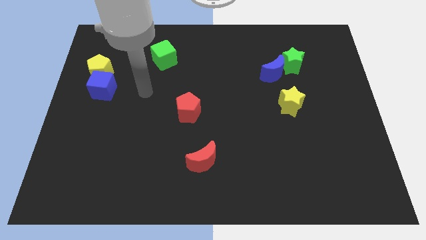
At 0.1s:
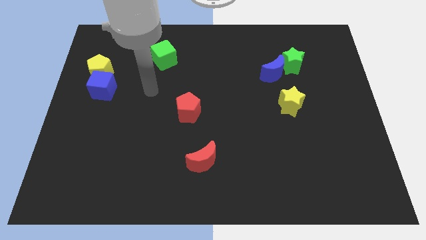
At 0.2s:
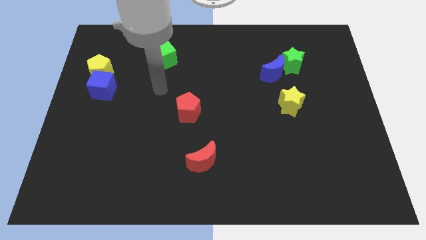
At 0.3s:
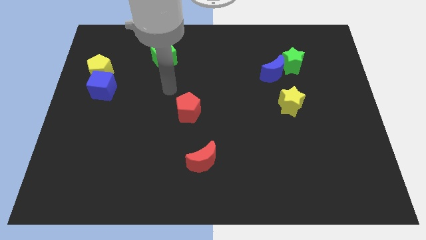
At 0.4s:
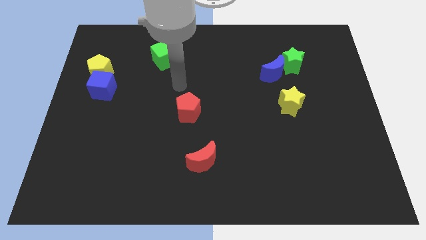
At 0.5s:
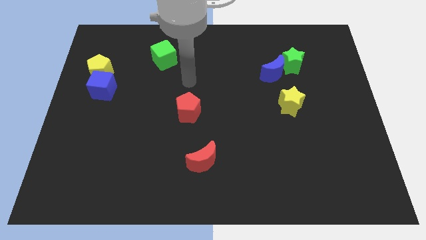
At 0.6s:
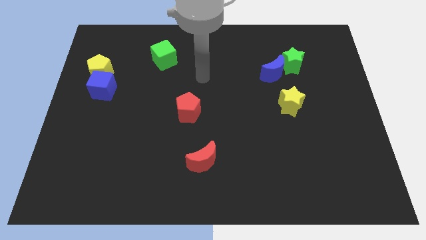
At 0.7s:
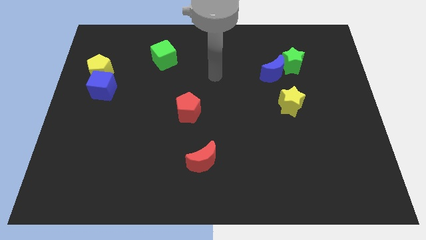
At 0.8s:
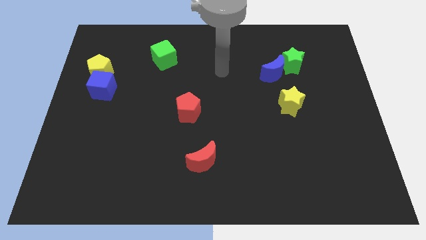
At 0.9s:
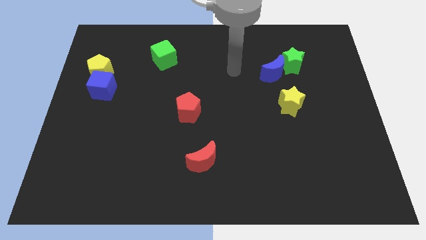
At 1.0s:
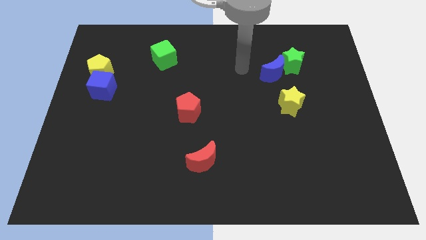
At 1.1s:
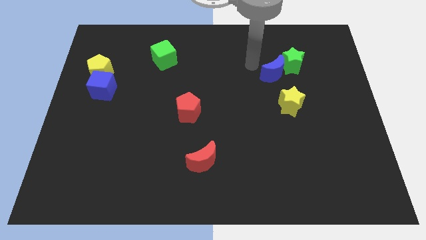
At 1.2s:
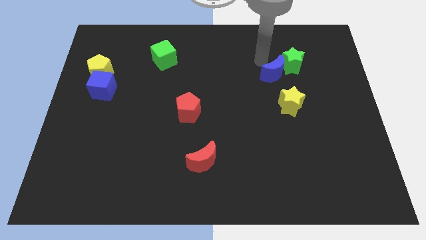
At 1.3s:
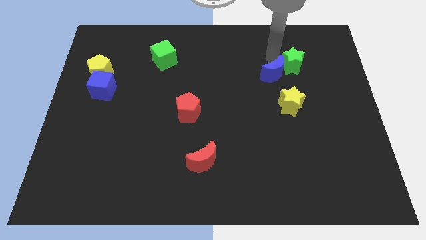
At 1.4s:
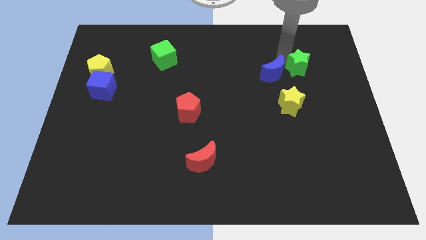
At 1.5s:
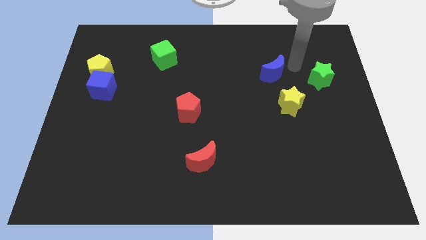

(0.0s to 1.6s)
move the blue moon away from the green star

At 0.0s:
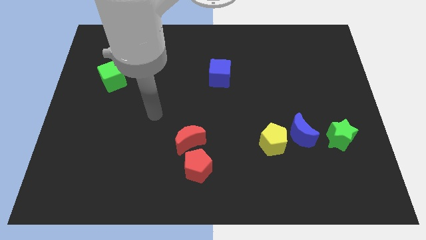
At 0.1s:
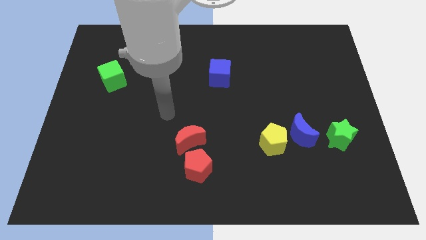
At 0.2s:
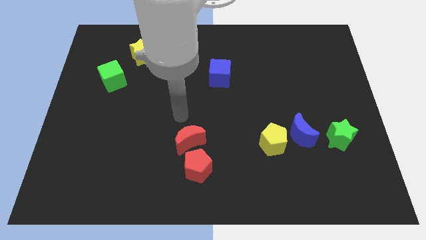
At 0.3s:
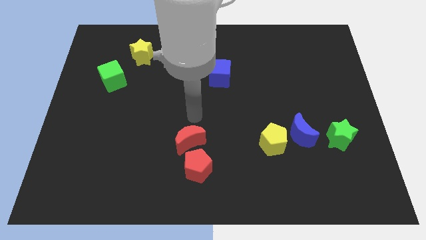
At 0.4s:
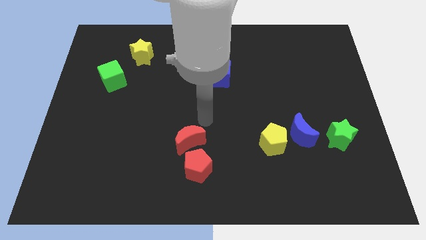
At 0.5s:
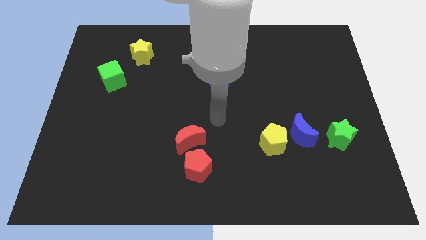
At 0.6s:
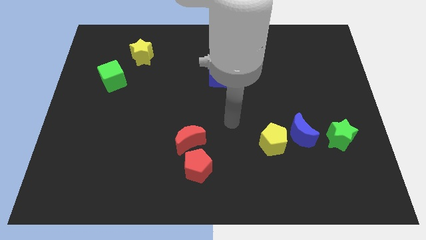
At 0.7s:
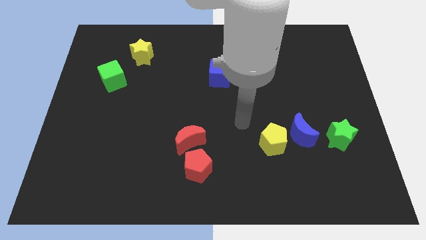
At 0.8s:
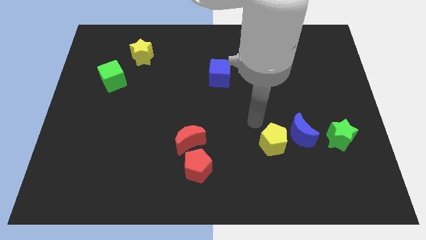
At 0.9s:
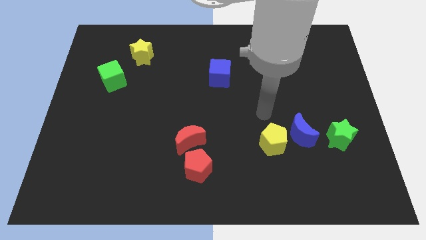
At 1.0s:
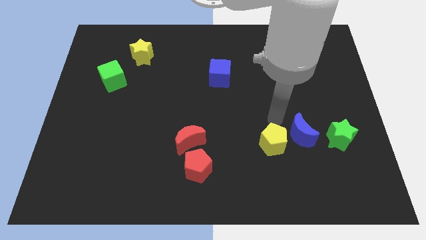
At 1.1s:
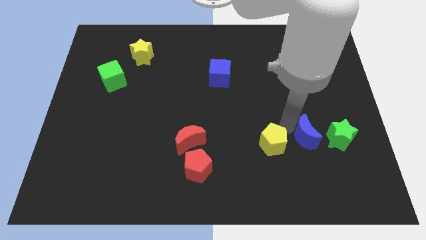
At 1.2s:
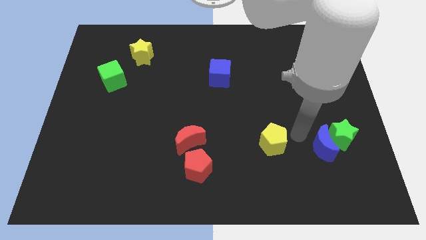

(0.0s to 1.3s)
separate the yellow pentagon from the blue moon

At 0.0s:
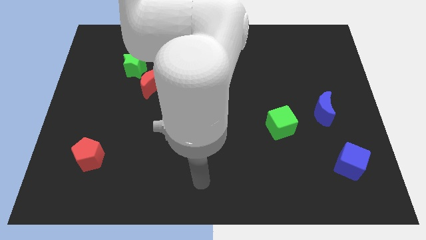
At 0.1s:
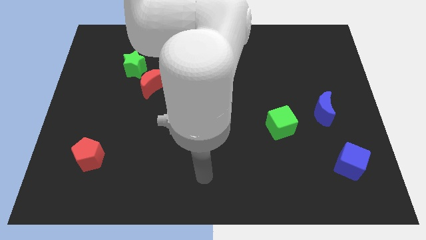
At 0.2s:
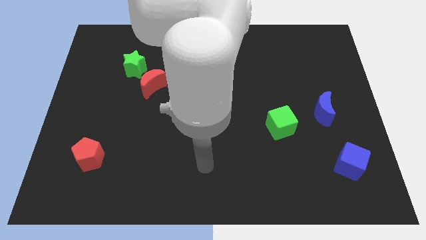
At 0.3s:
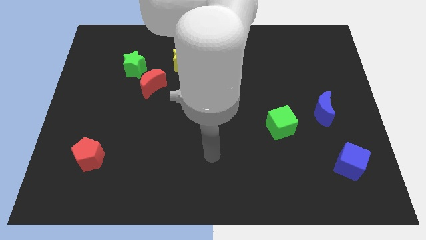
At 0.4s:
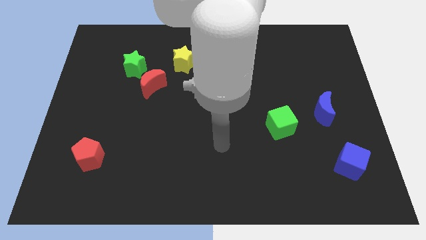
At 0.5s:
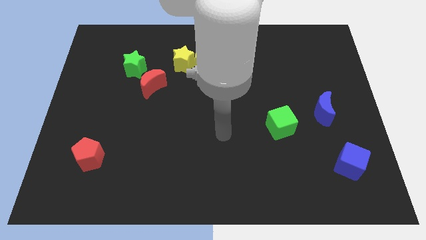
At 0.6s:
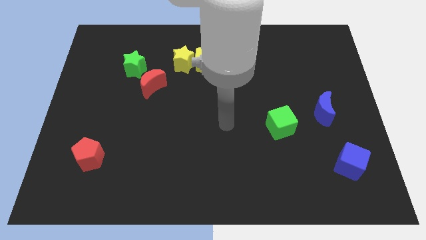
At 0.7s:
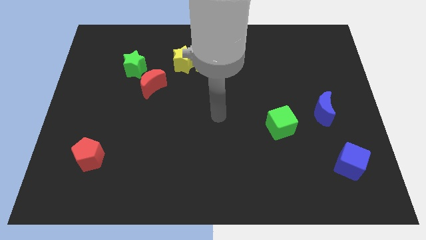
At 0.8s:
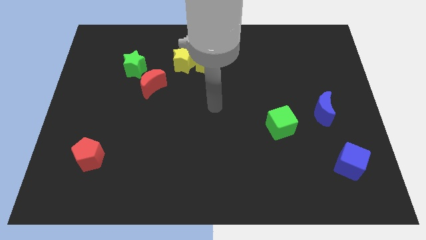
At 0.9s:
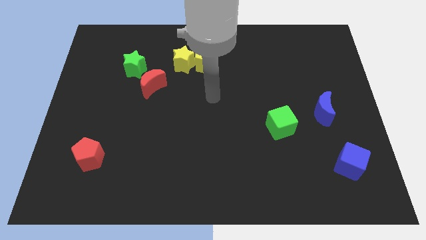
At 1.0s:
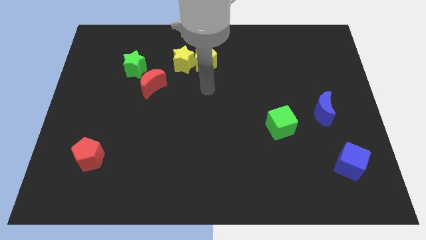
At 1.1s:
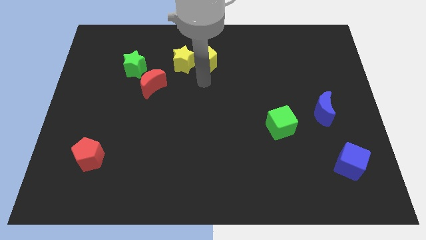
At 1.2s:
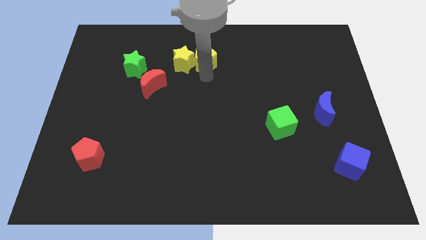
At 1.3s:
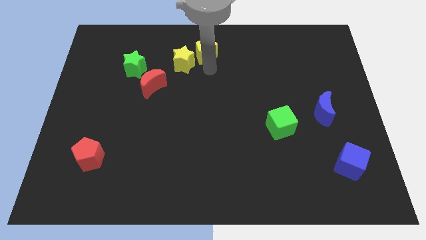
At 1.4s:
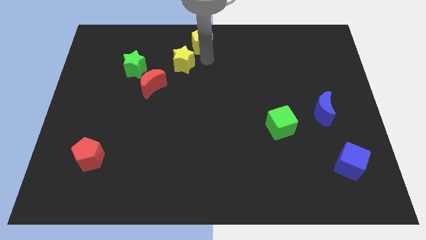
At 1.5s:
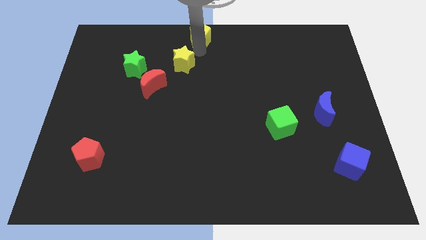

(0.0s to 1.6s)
pull the yellow star apart from the yellow pentagon

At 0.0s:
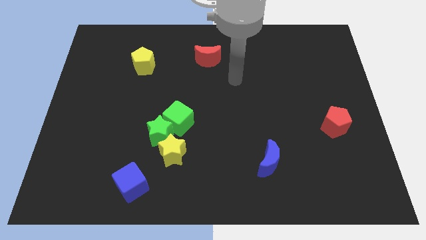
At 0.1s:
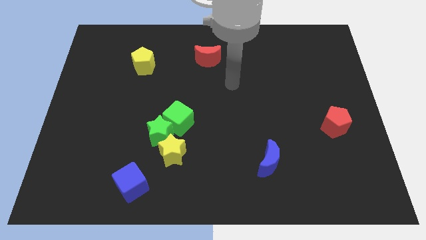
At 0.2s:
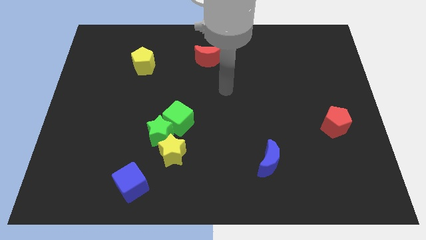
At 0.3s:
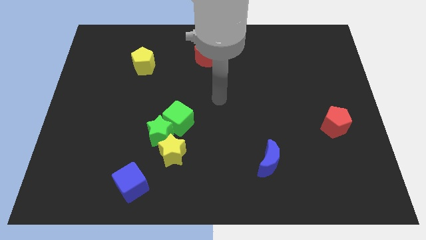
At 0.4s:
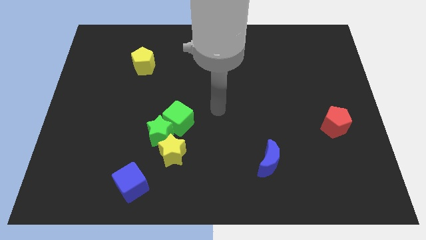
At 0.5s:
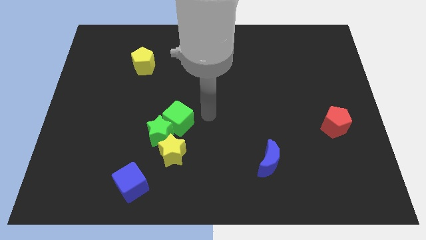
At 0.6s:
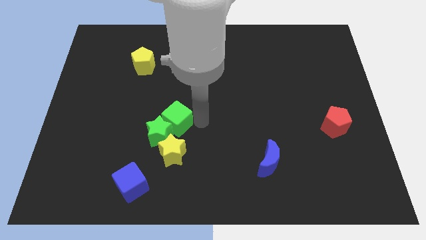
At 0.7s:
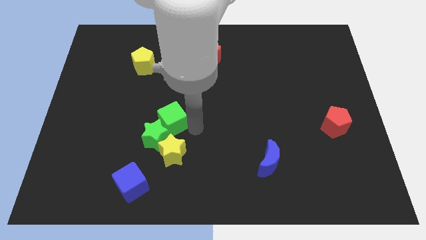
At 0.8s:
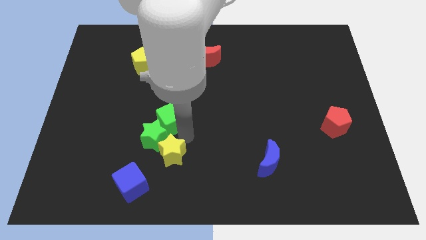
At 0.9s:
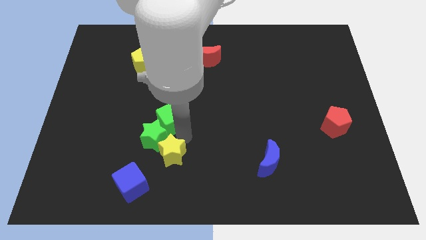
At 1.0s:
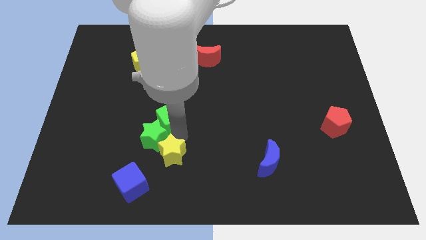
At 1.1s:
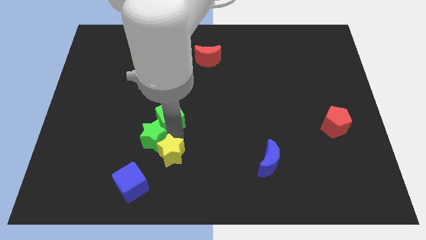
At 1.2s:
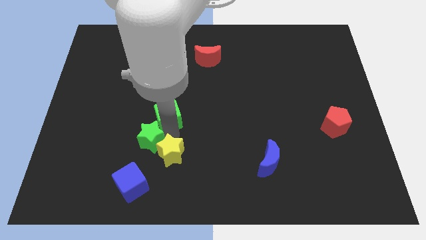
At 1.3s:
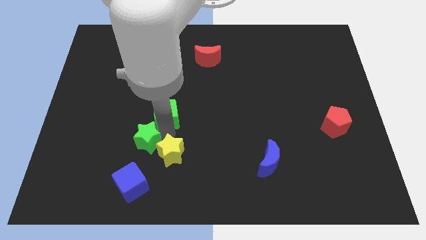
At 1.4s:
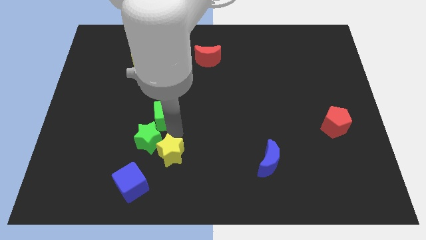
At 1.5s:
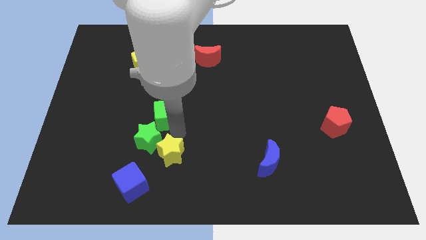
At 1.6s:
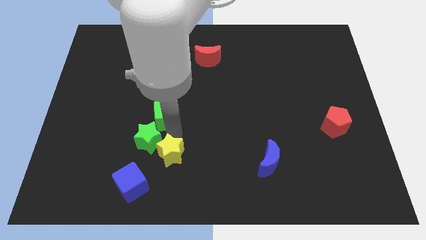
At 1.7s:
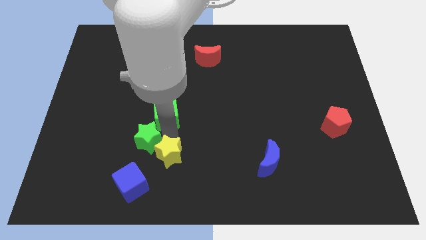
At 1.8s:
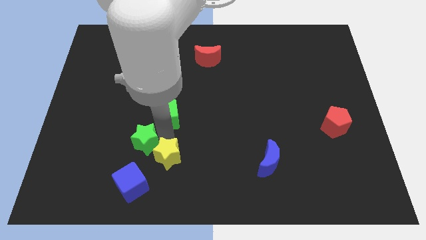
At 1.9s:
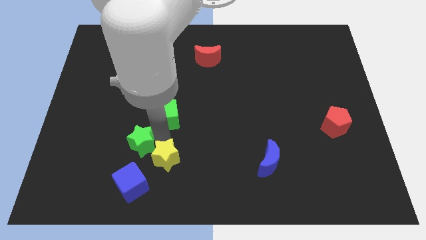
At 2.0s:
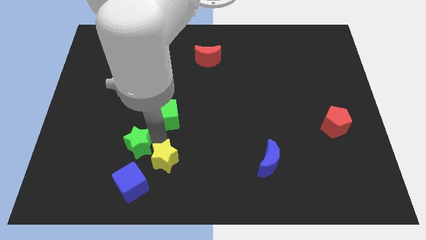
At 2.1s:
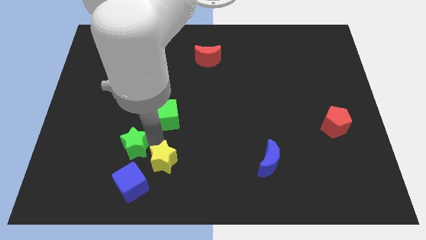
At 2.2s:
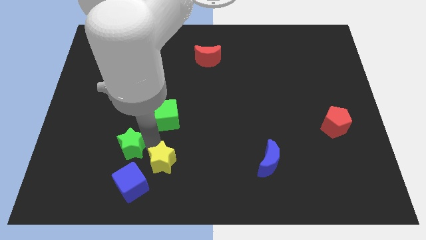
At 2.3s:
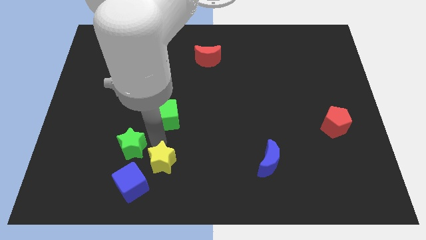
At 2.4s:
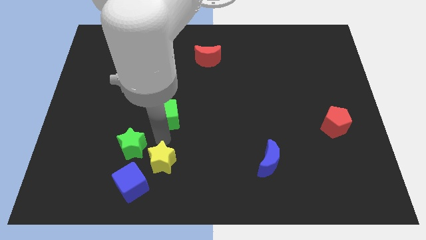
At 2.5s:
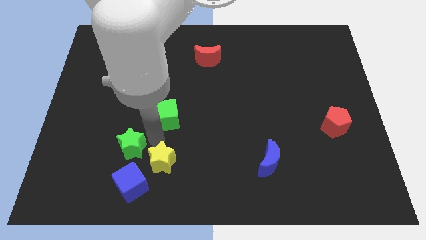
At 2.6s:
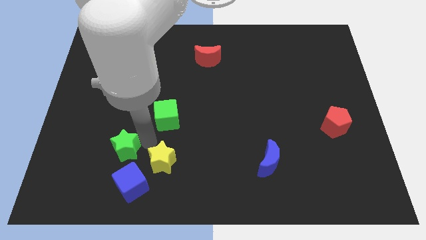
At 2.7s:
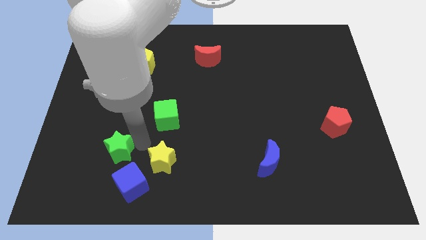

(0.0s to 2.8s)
move the green star away from the green cube and yellow star

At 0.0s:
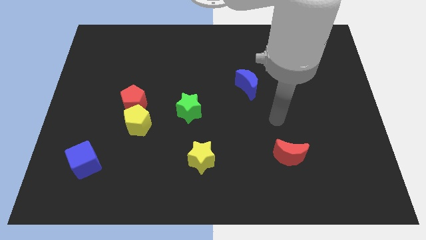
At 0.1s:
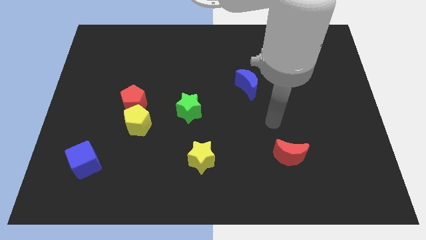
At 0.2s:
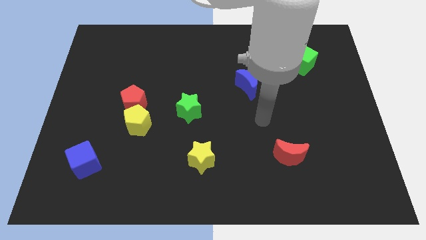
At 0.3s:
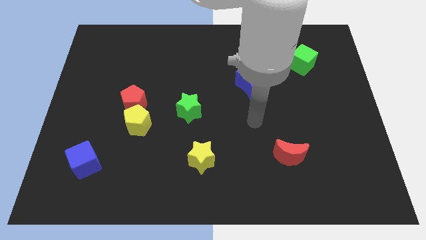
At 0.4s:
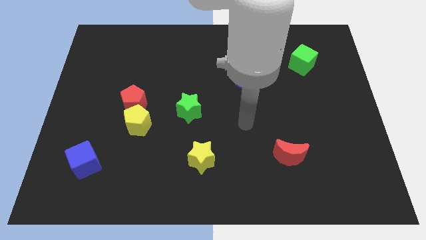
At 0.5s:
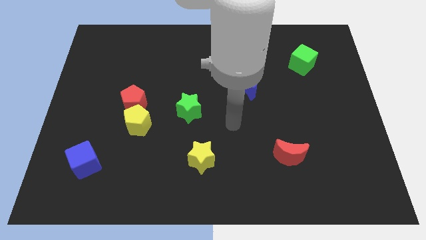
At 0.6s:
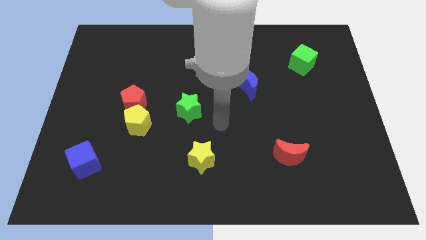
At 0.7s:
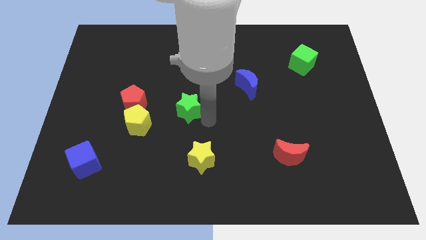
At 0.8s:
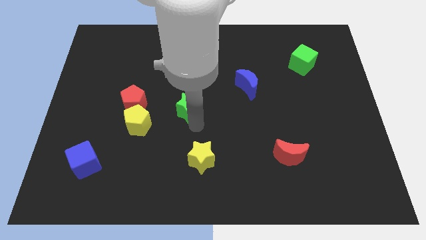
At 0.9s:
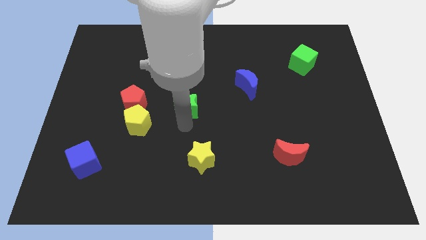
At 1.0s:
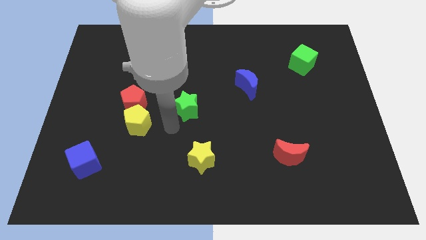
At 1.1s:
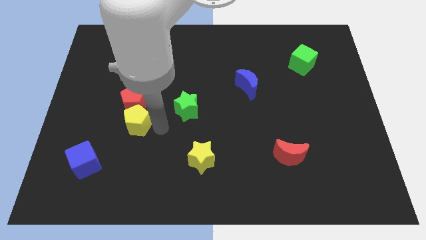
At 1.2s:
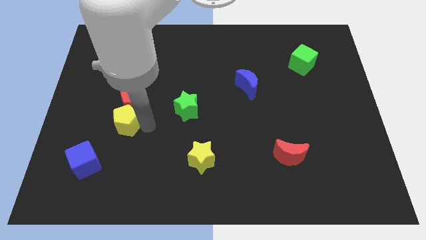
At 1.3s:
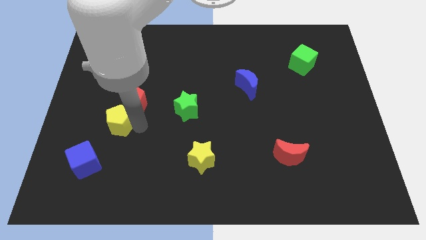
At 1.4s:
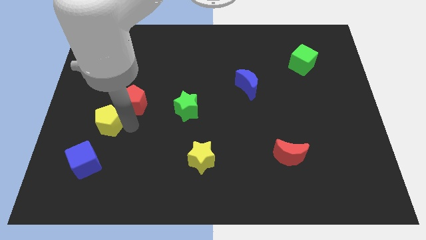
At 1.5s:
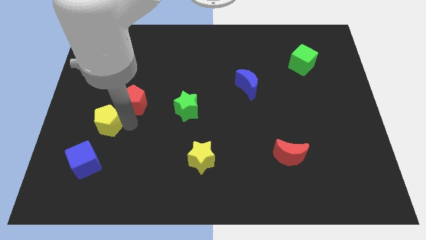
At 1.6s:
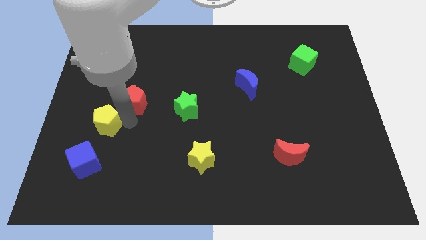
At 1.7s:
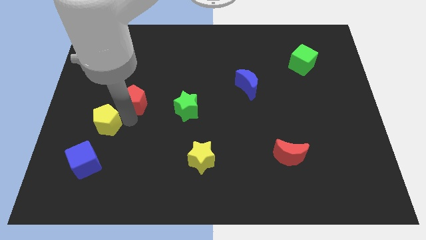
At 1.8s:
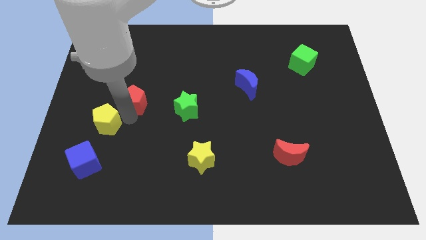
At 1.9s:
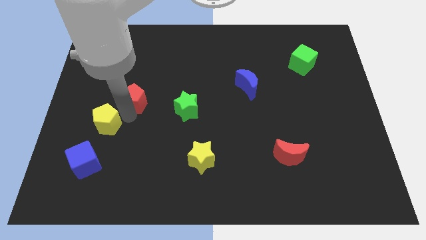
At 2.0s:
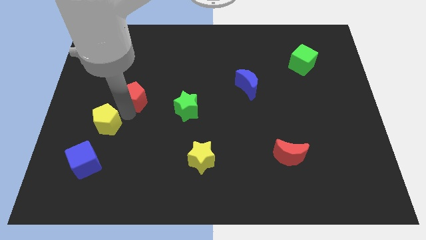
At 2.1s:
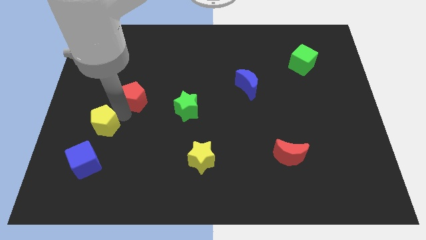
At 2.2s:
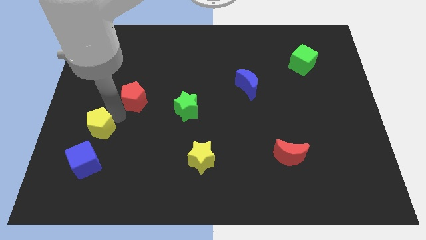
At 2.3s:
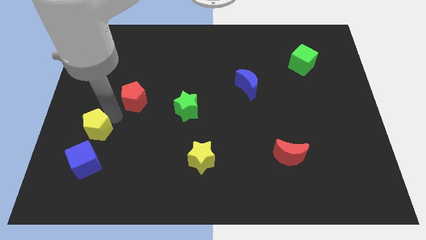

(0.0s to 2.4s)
pull the red pentagon apart from the yellow pentagon
